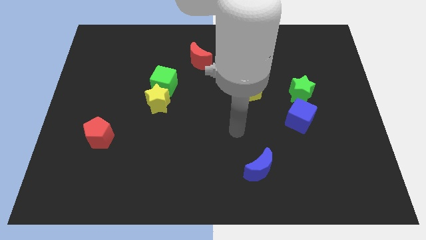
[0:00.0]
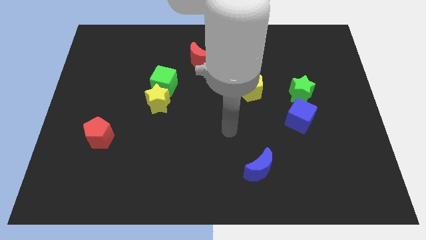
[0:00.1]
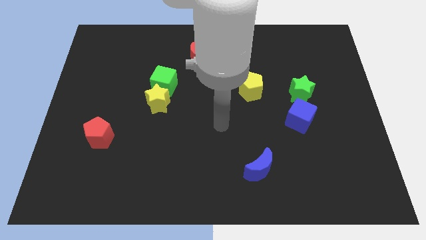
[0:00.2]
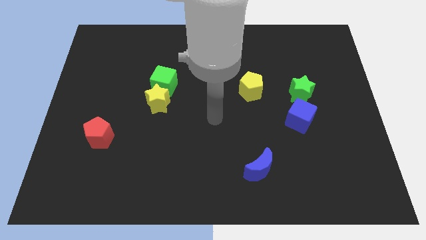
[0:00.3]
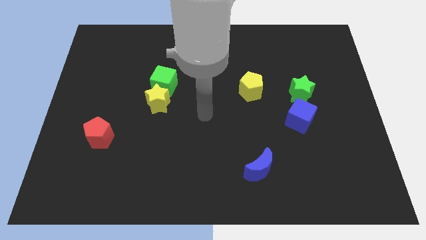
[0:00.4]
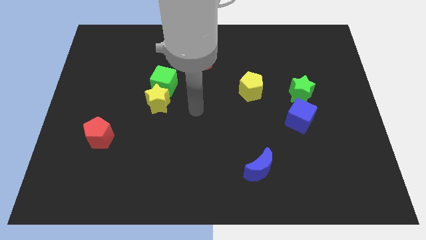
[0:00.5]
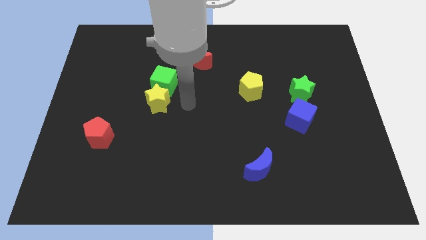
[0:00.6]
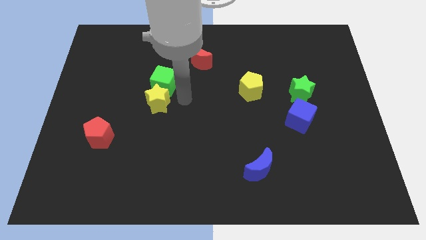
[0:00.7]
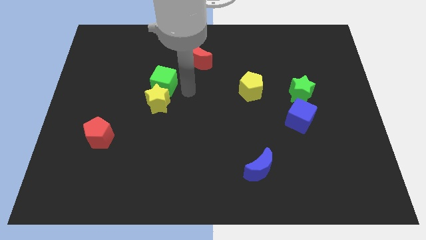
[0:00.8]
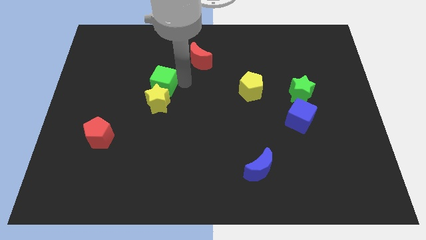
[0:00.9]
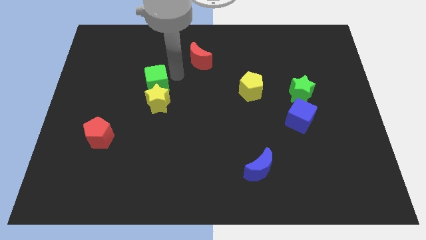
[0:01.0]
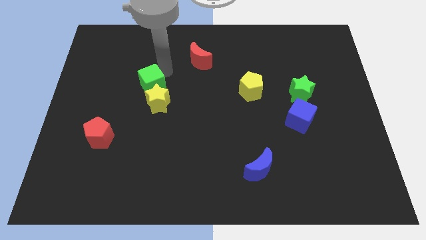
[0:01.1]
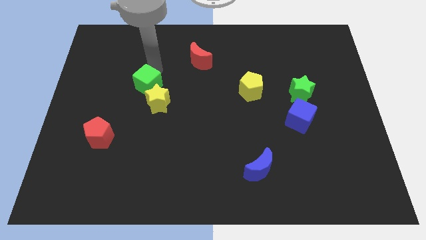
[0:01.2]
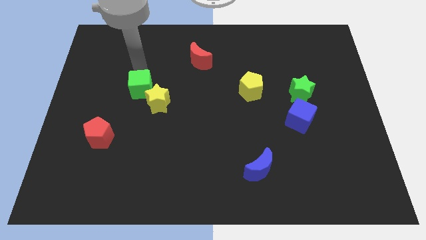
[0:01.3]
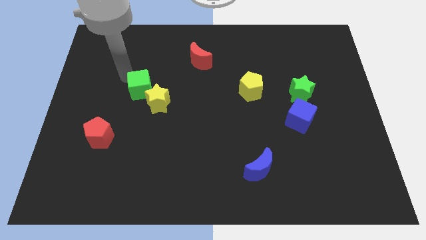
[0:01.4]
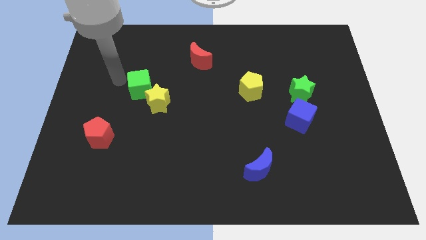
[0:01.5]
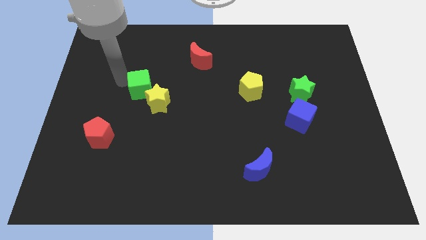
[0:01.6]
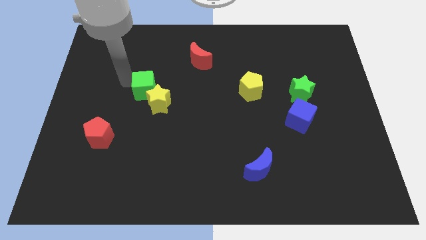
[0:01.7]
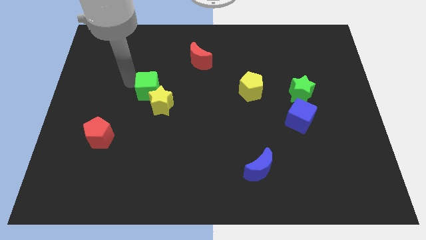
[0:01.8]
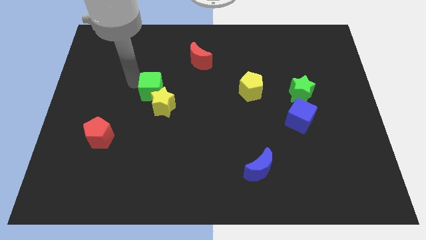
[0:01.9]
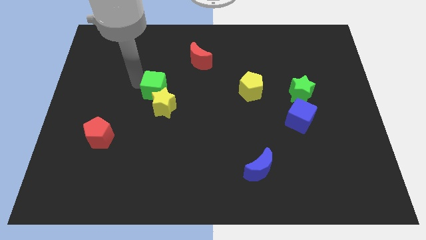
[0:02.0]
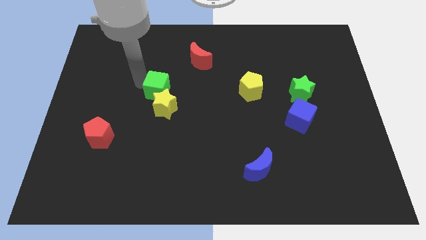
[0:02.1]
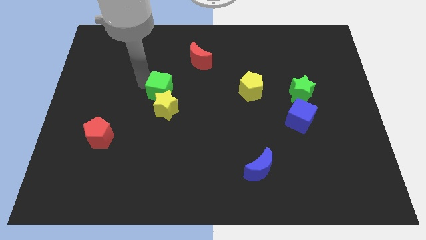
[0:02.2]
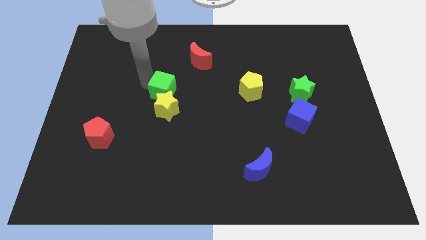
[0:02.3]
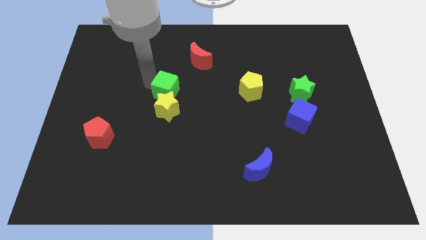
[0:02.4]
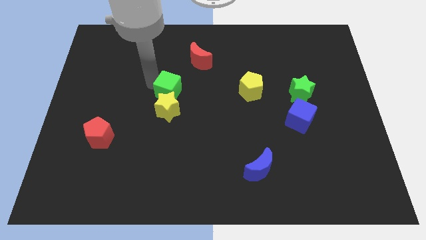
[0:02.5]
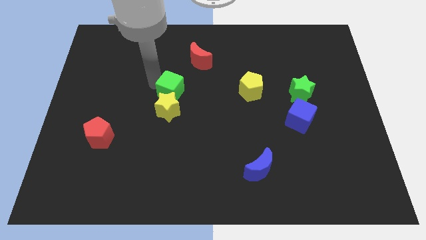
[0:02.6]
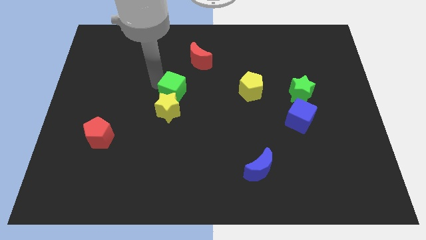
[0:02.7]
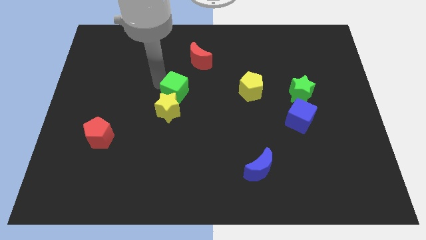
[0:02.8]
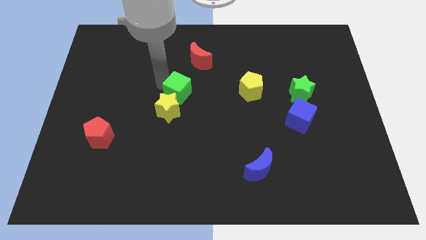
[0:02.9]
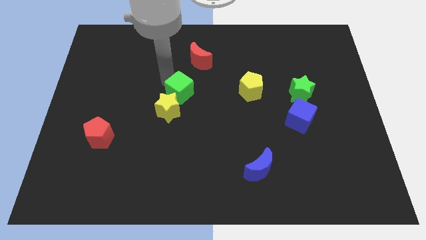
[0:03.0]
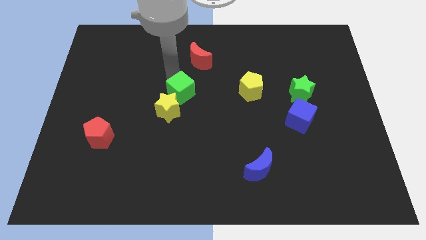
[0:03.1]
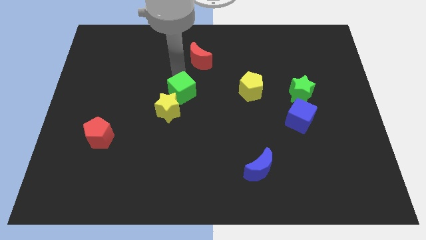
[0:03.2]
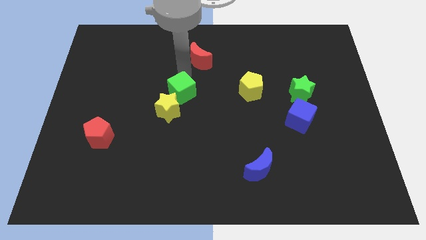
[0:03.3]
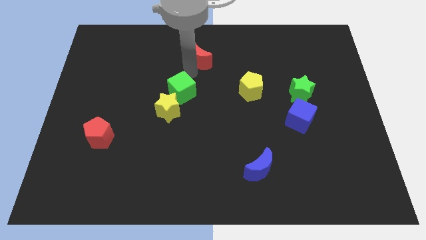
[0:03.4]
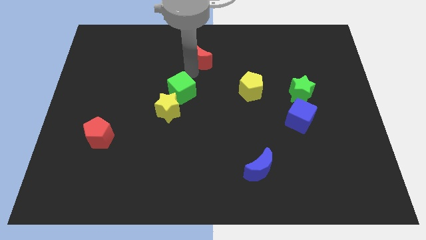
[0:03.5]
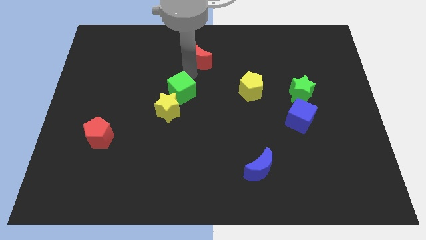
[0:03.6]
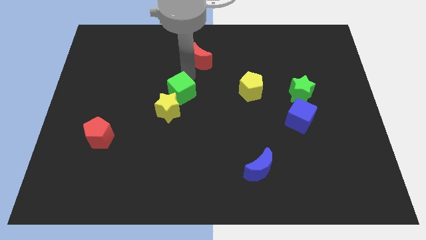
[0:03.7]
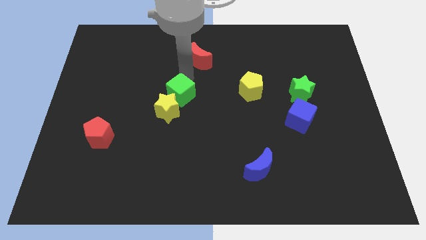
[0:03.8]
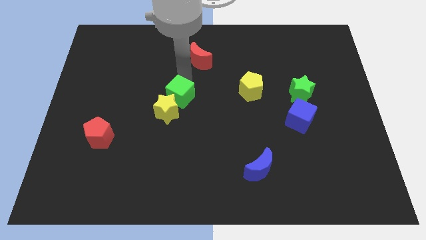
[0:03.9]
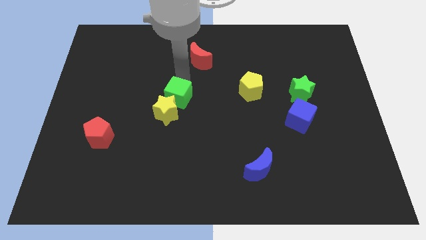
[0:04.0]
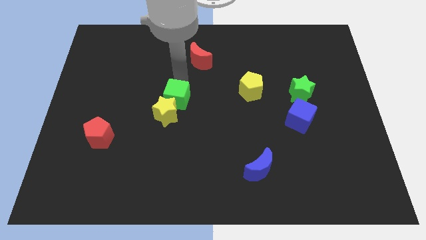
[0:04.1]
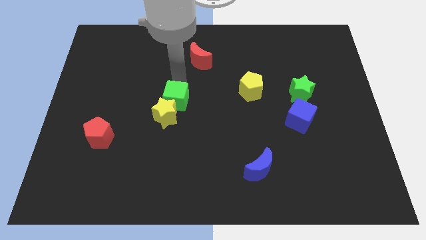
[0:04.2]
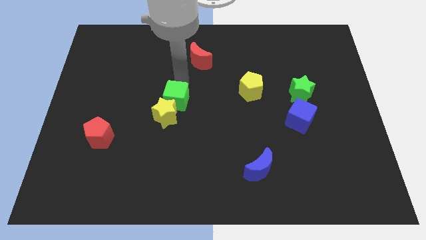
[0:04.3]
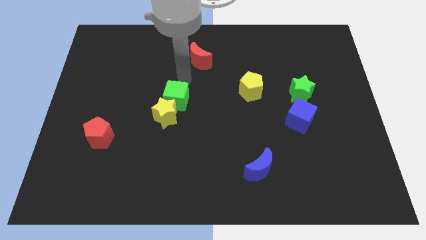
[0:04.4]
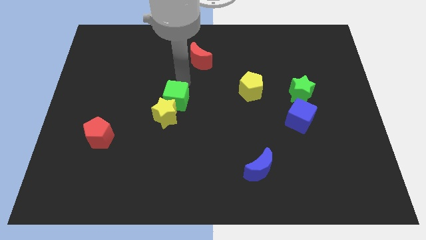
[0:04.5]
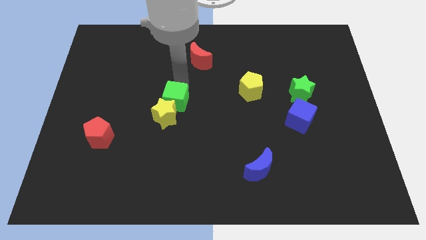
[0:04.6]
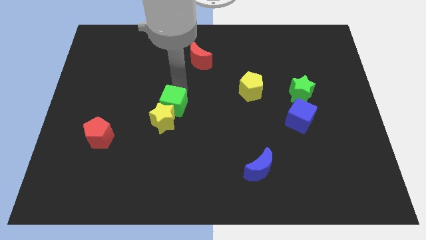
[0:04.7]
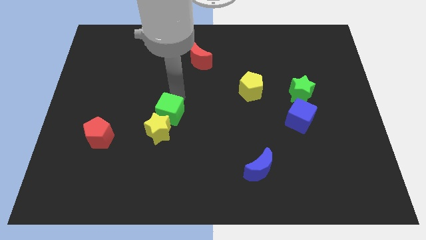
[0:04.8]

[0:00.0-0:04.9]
push the green cube somewhat down

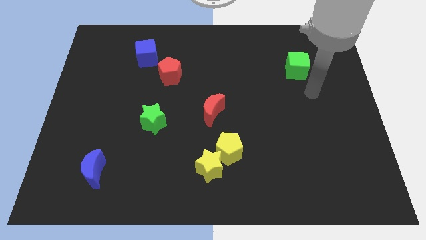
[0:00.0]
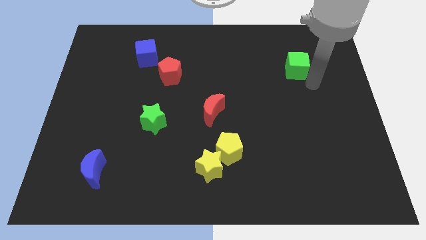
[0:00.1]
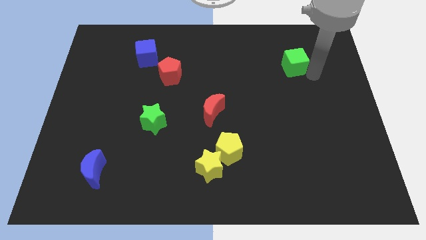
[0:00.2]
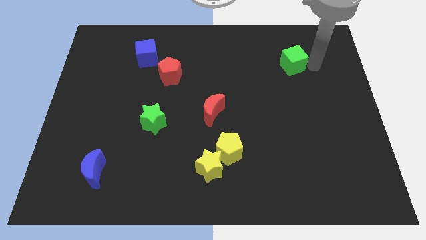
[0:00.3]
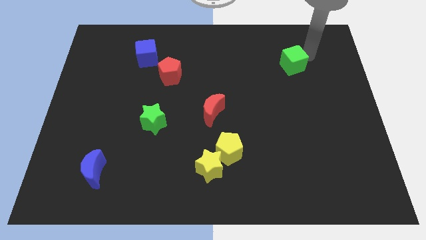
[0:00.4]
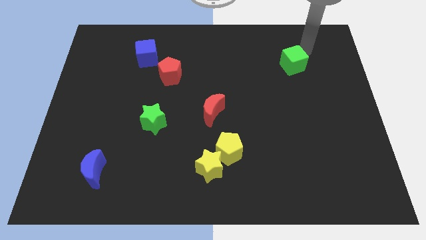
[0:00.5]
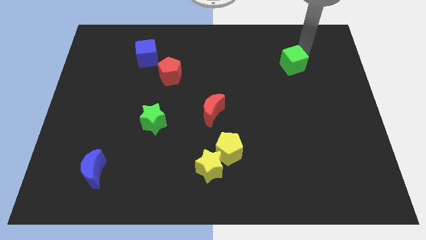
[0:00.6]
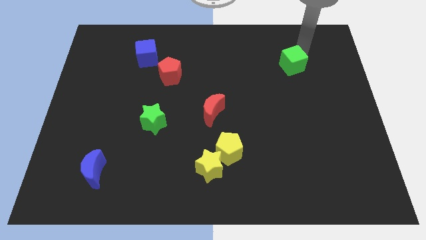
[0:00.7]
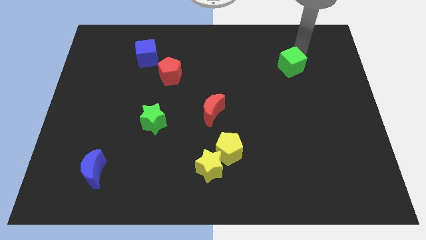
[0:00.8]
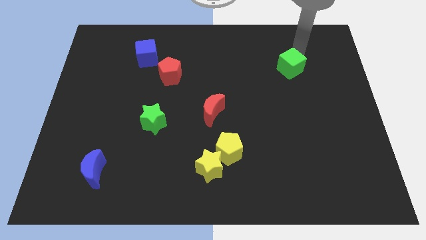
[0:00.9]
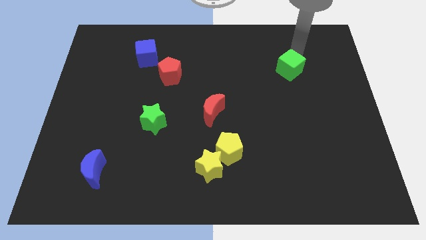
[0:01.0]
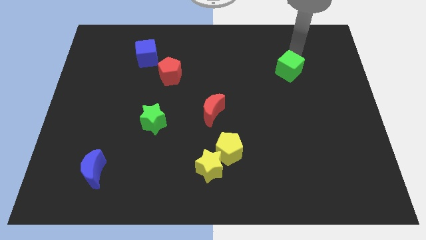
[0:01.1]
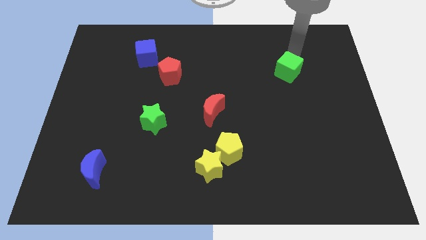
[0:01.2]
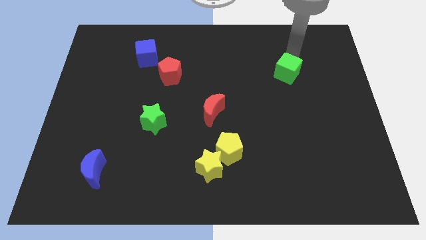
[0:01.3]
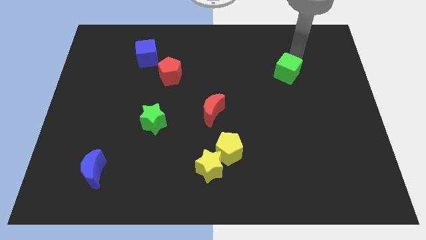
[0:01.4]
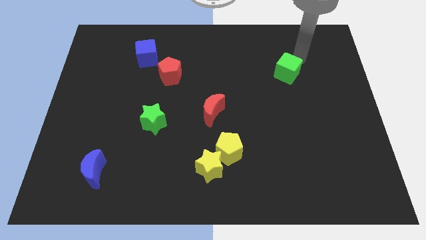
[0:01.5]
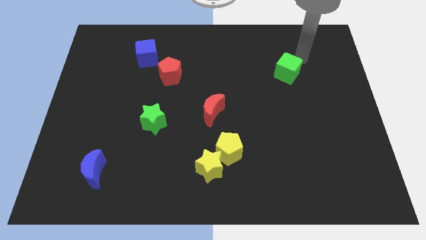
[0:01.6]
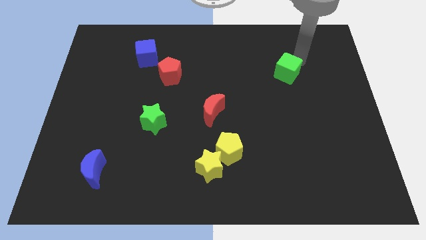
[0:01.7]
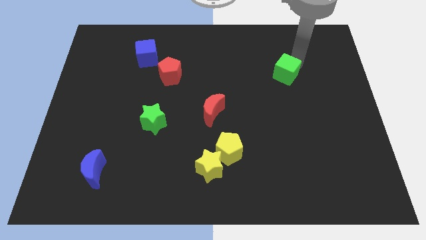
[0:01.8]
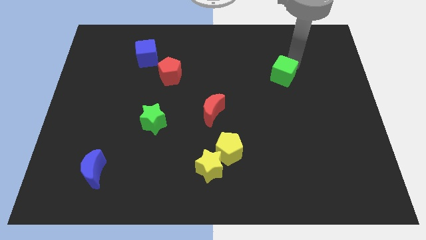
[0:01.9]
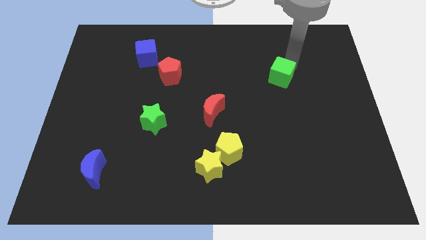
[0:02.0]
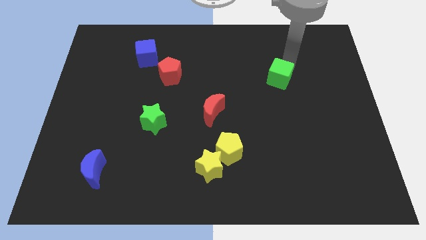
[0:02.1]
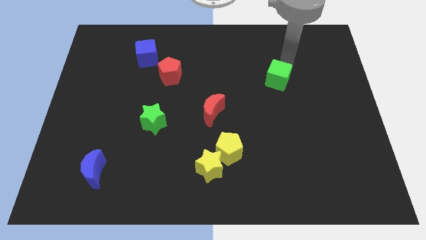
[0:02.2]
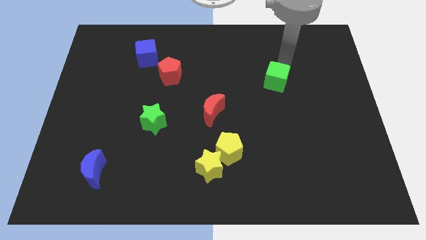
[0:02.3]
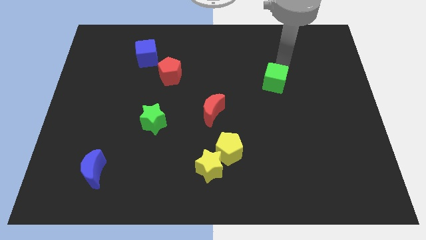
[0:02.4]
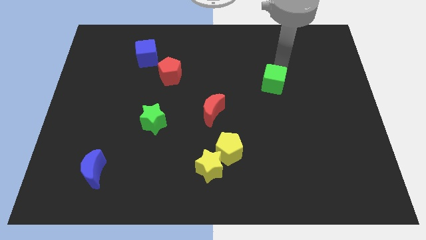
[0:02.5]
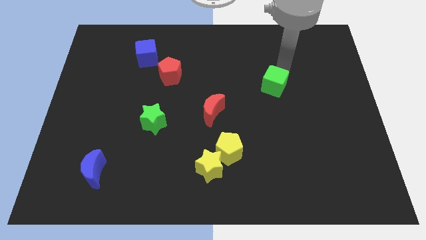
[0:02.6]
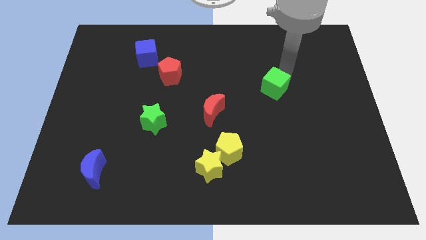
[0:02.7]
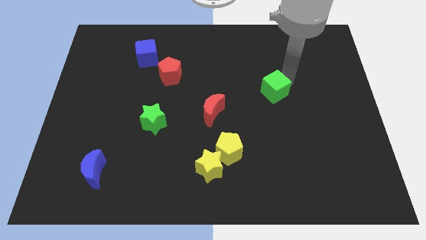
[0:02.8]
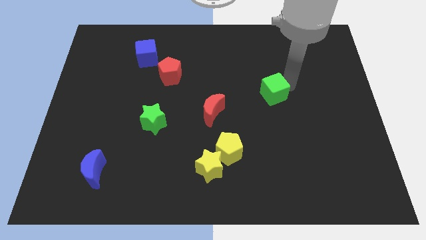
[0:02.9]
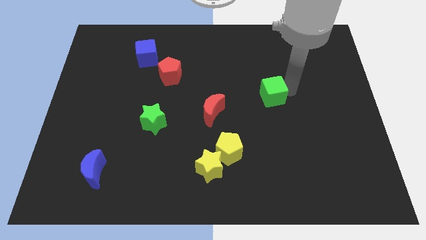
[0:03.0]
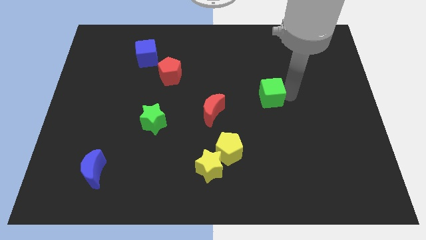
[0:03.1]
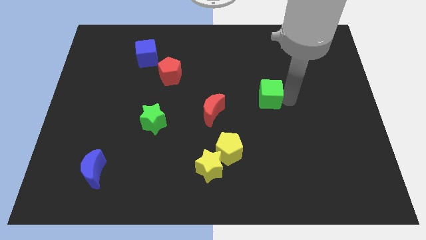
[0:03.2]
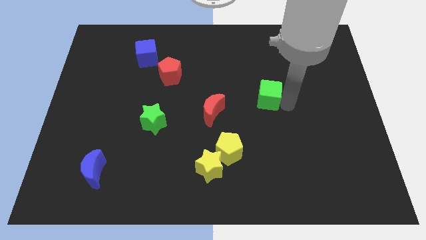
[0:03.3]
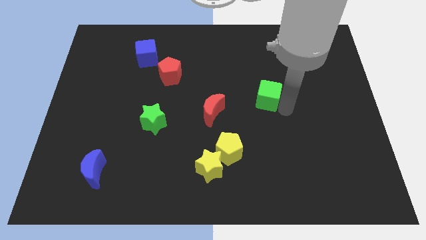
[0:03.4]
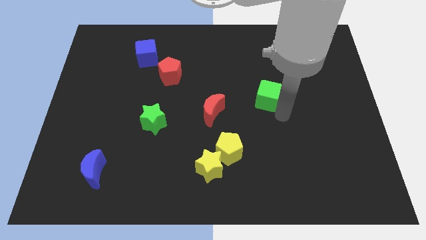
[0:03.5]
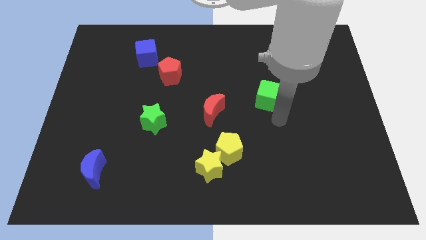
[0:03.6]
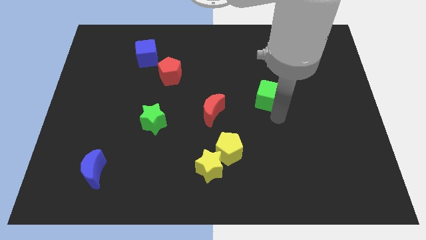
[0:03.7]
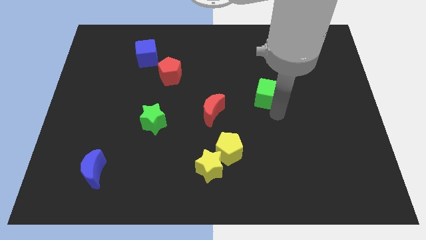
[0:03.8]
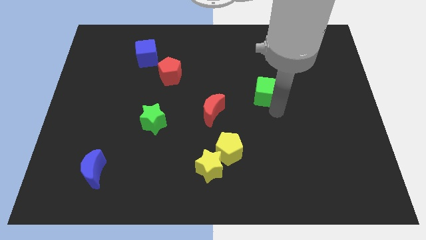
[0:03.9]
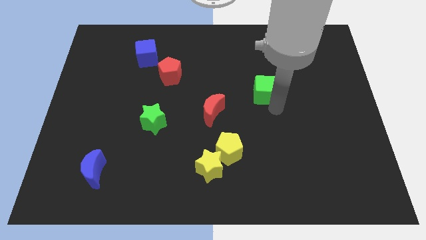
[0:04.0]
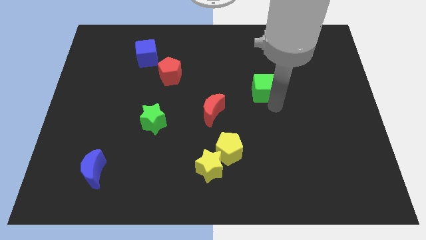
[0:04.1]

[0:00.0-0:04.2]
slightly push the green cube to the left
